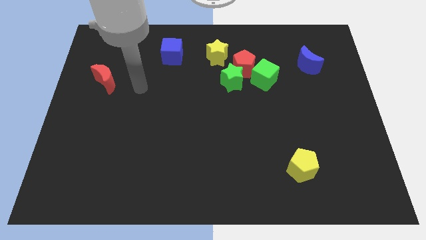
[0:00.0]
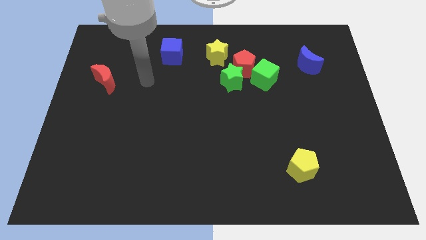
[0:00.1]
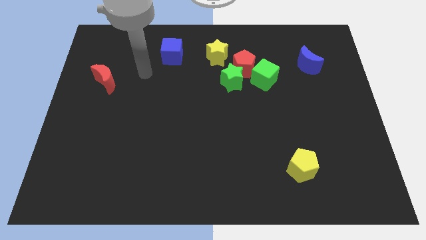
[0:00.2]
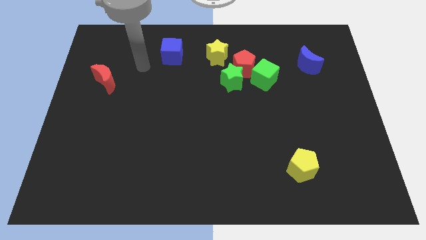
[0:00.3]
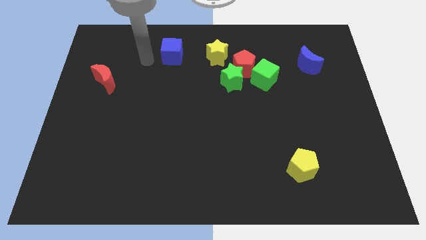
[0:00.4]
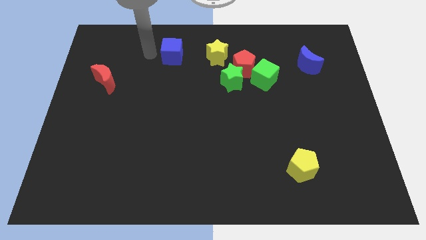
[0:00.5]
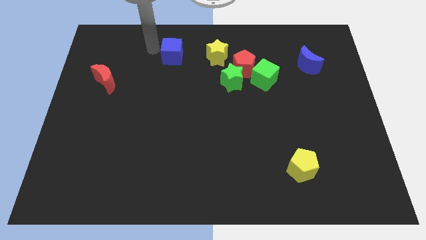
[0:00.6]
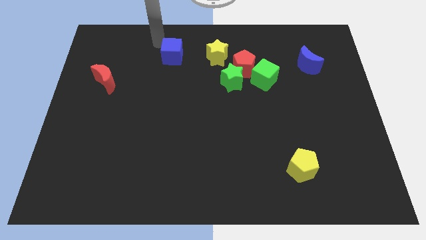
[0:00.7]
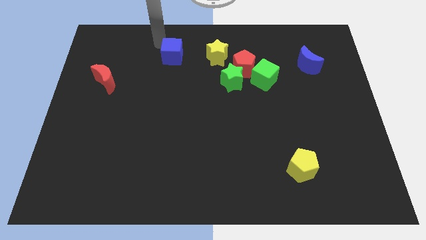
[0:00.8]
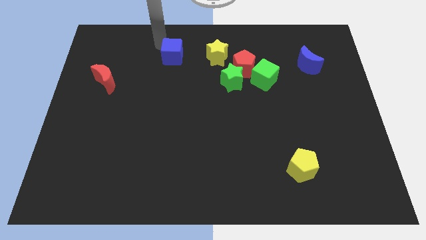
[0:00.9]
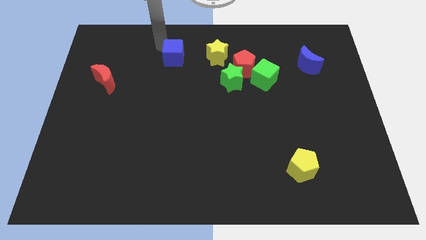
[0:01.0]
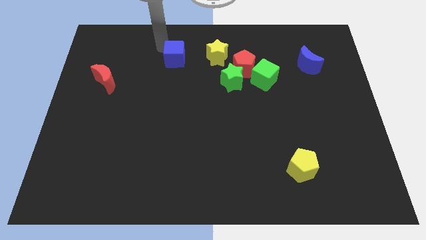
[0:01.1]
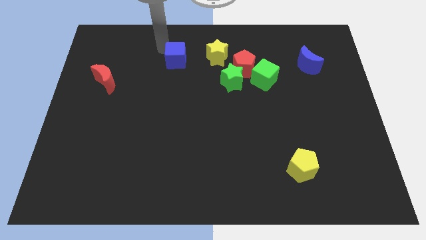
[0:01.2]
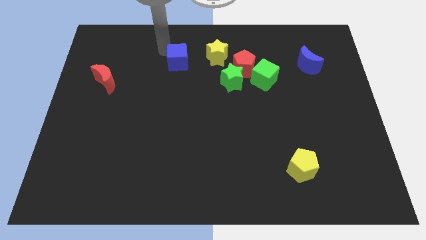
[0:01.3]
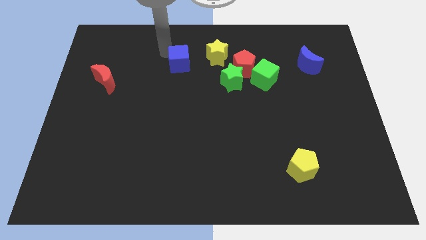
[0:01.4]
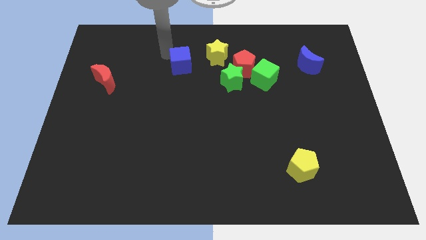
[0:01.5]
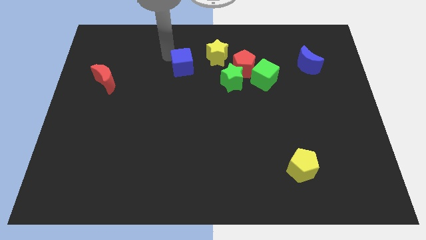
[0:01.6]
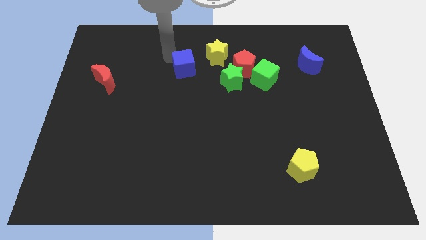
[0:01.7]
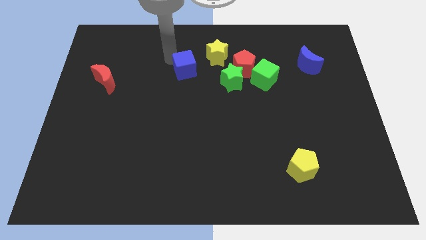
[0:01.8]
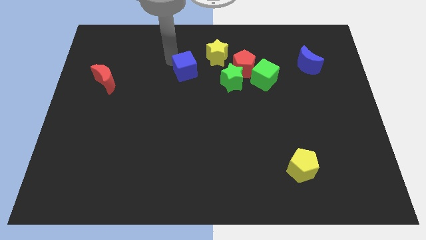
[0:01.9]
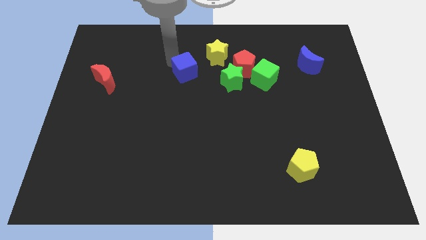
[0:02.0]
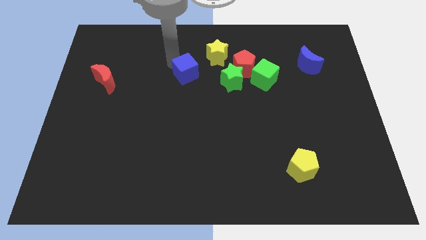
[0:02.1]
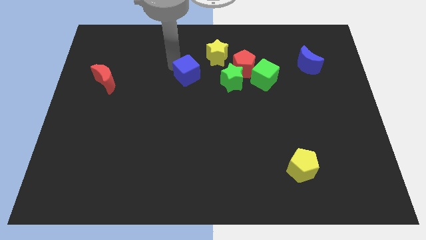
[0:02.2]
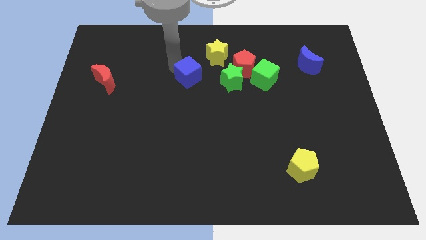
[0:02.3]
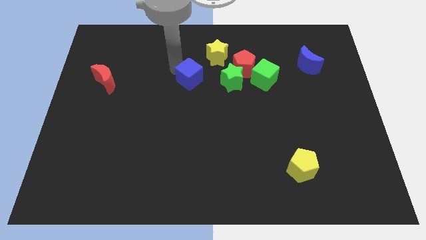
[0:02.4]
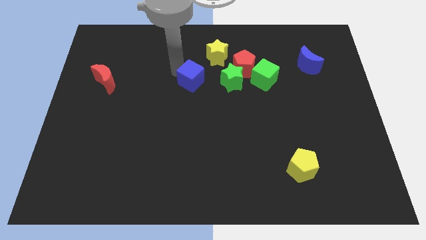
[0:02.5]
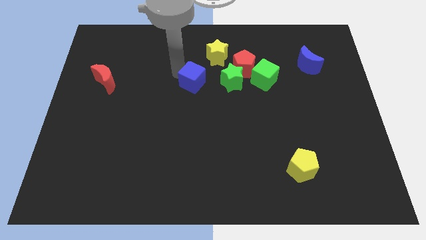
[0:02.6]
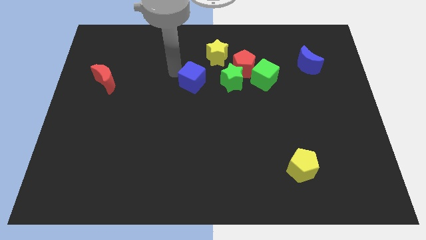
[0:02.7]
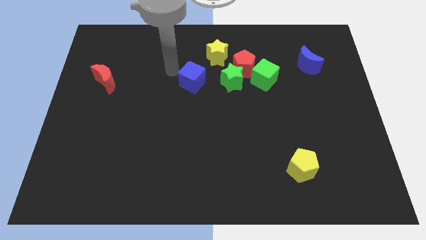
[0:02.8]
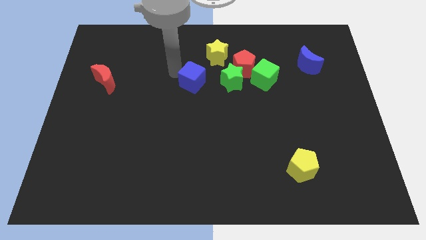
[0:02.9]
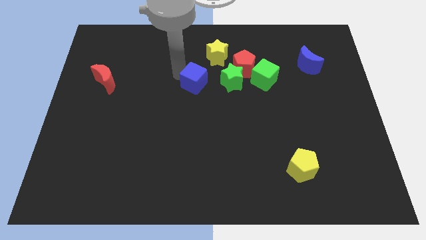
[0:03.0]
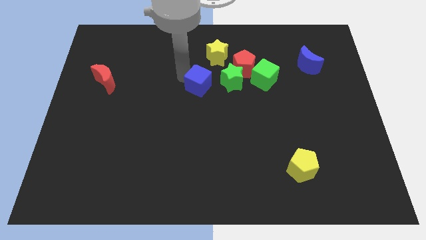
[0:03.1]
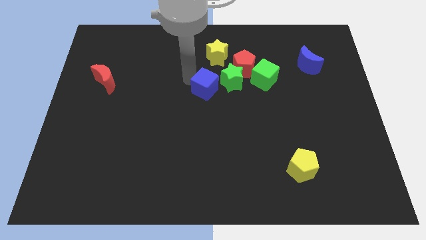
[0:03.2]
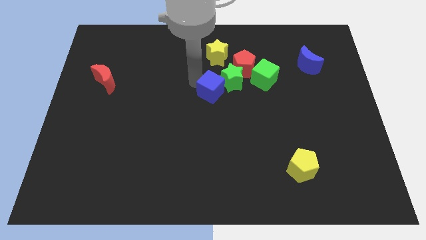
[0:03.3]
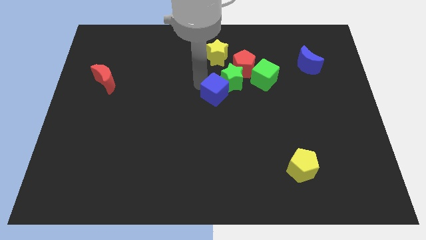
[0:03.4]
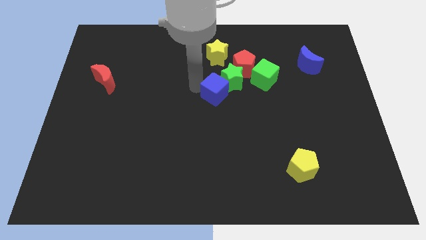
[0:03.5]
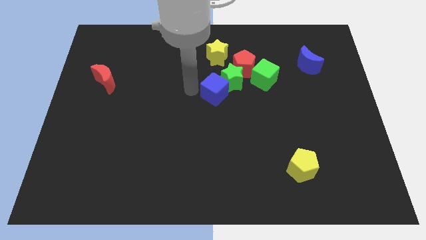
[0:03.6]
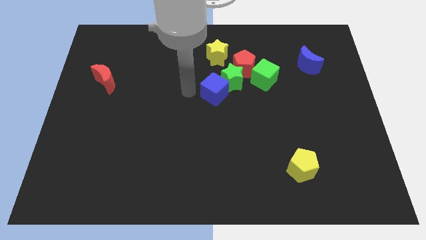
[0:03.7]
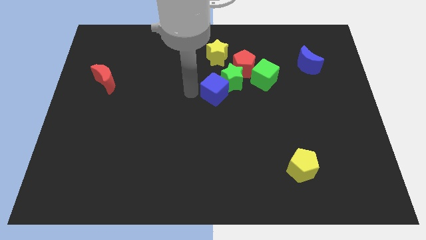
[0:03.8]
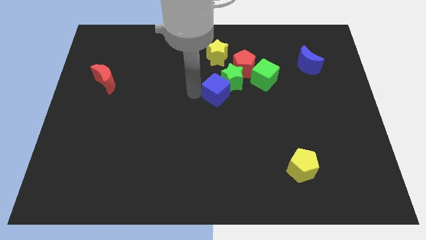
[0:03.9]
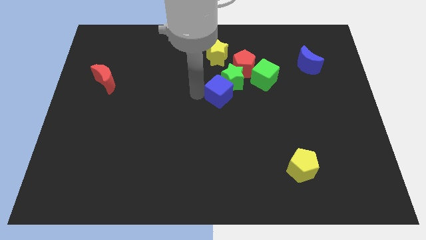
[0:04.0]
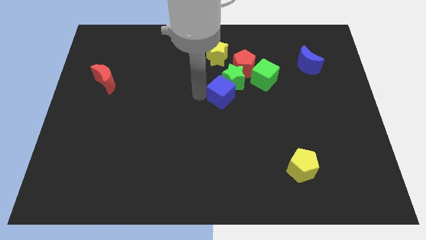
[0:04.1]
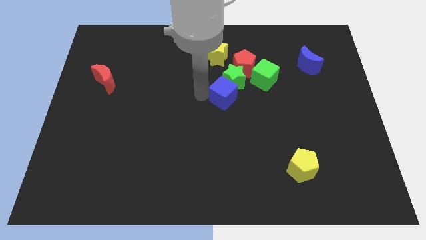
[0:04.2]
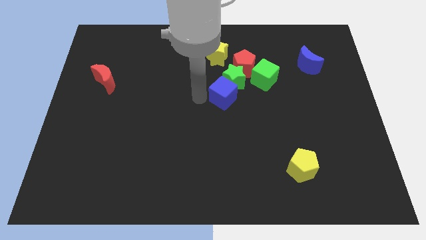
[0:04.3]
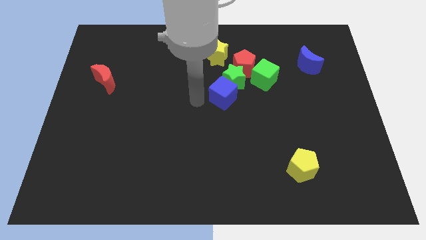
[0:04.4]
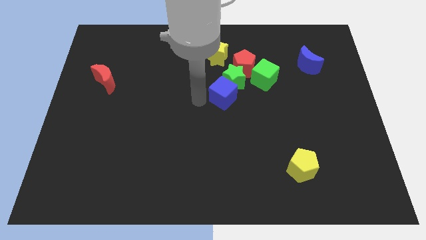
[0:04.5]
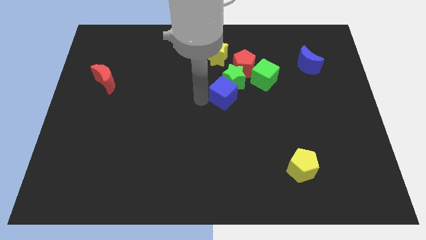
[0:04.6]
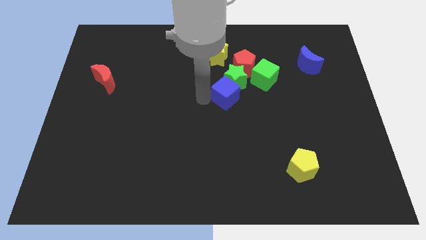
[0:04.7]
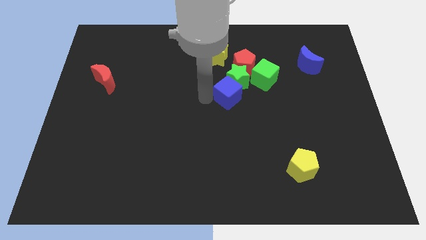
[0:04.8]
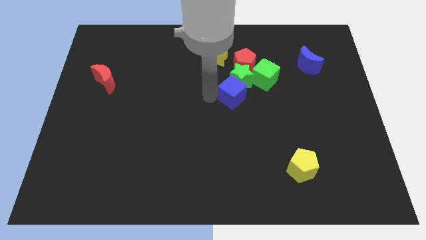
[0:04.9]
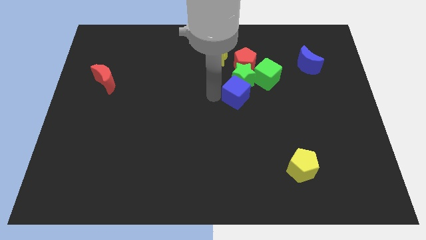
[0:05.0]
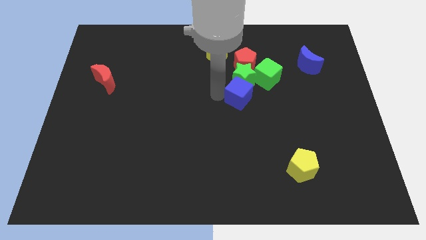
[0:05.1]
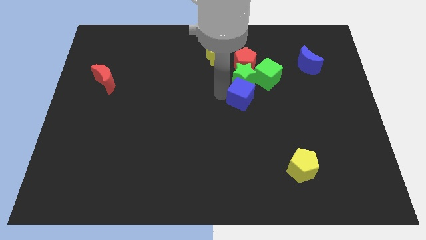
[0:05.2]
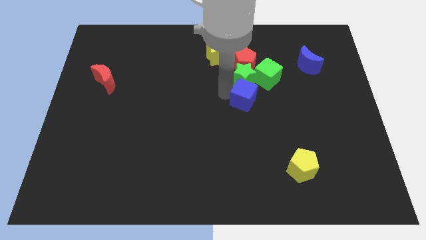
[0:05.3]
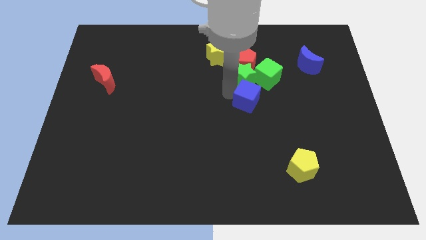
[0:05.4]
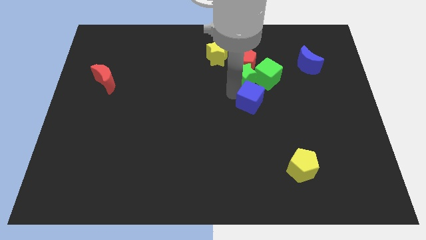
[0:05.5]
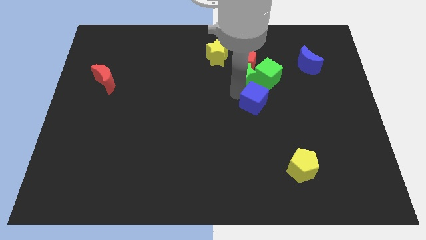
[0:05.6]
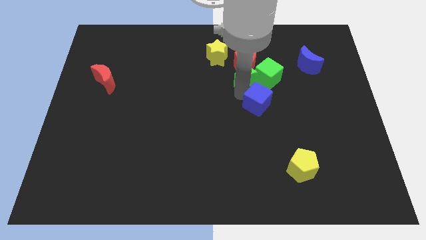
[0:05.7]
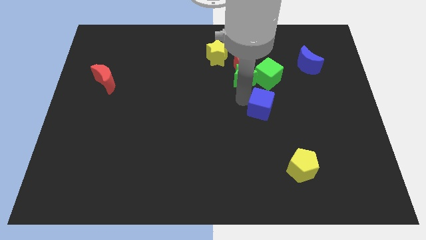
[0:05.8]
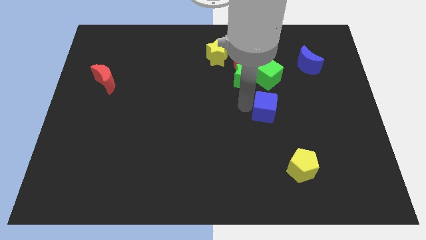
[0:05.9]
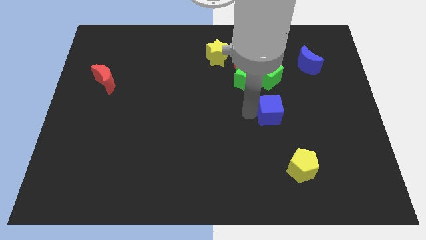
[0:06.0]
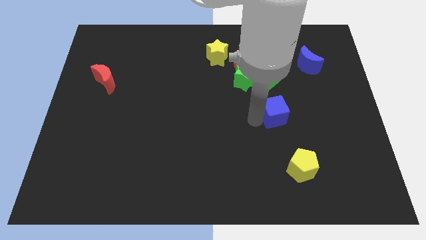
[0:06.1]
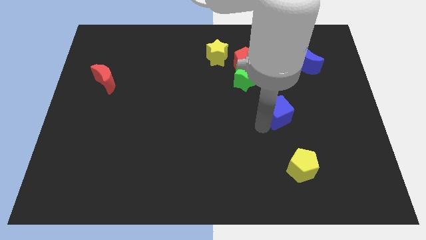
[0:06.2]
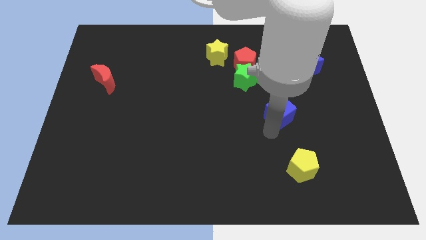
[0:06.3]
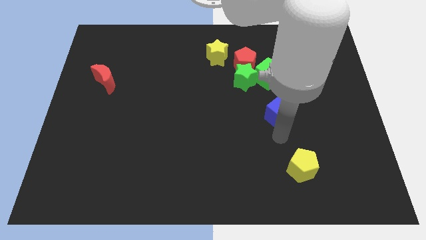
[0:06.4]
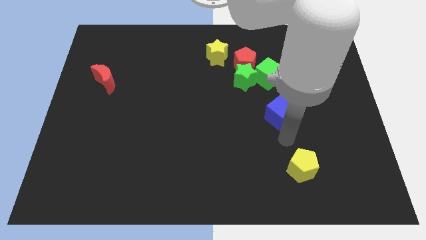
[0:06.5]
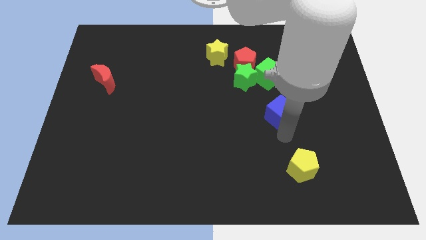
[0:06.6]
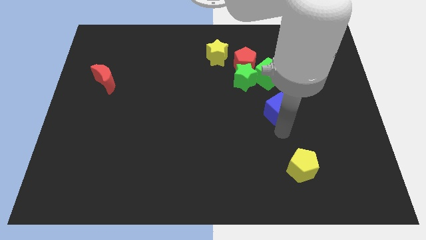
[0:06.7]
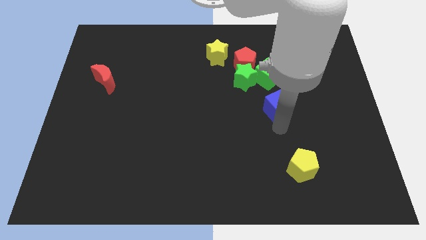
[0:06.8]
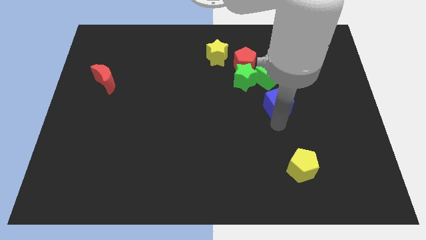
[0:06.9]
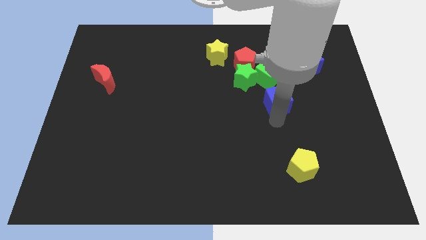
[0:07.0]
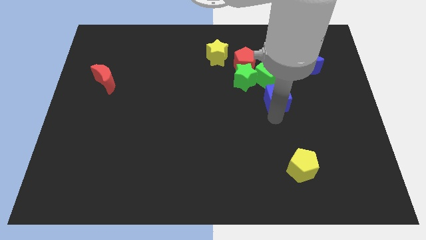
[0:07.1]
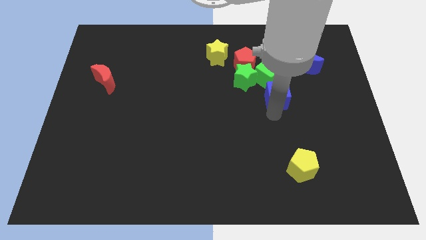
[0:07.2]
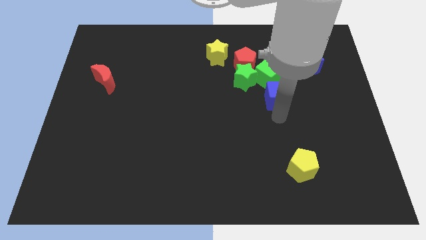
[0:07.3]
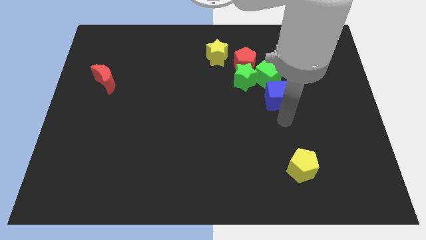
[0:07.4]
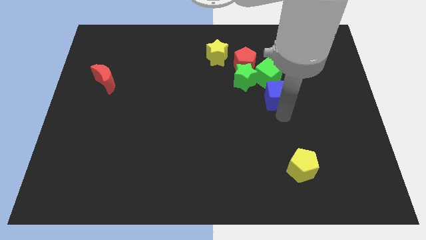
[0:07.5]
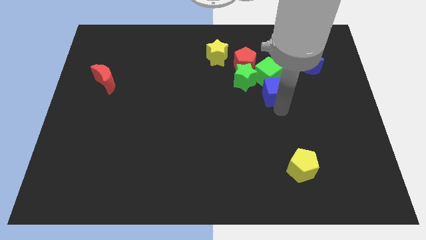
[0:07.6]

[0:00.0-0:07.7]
put the blue cube to the green cube
